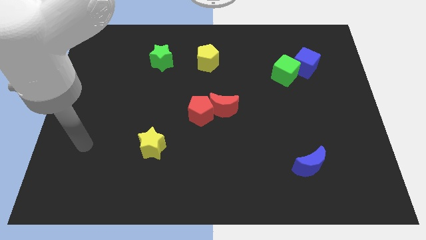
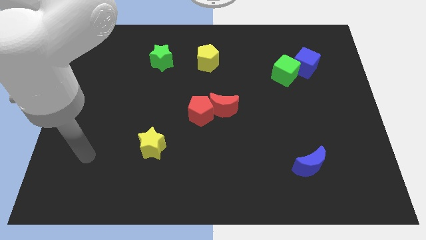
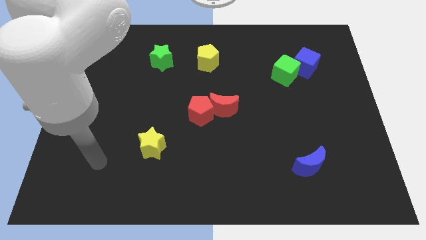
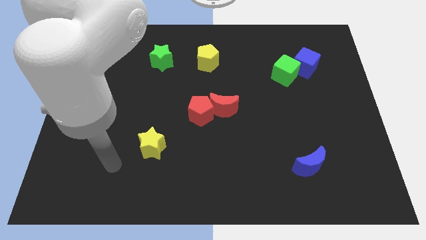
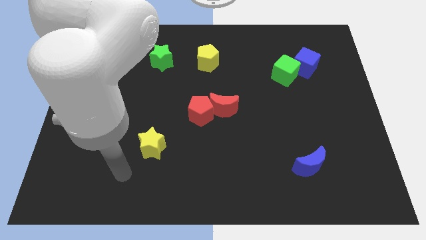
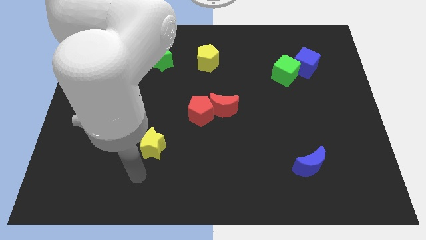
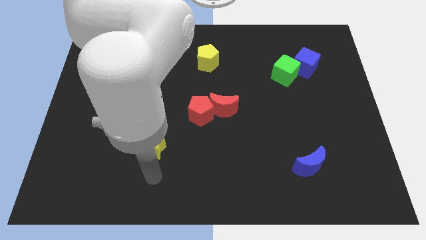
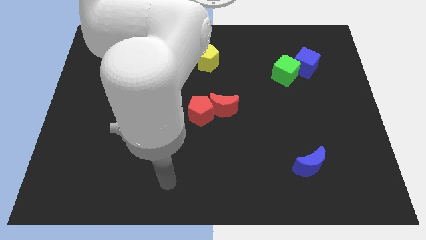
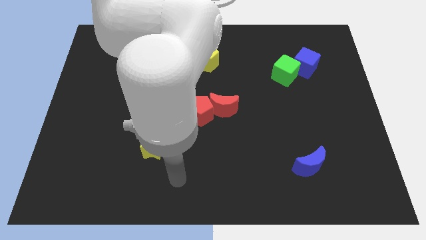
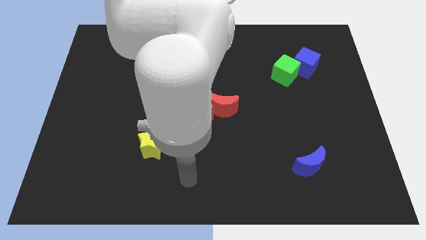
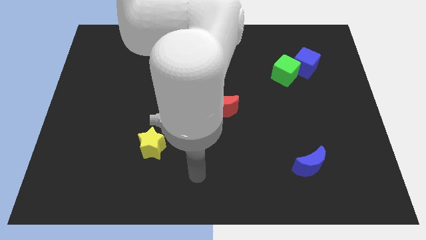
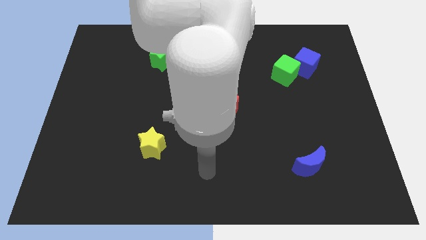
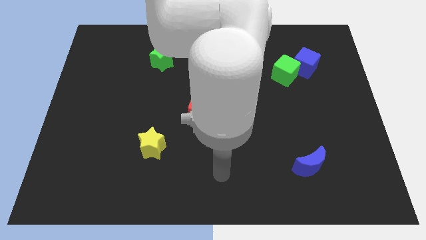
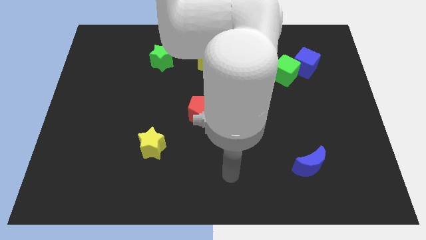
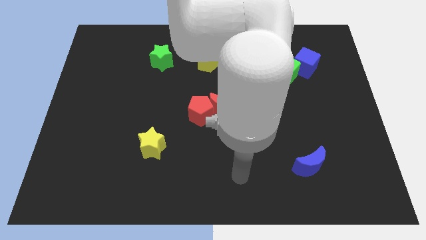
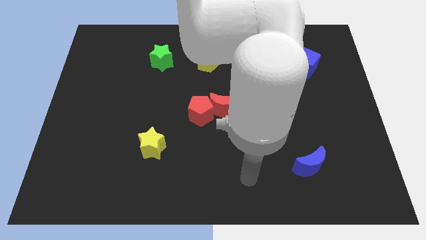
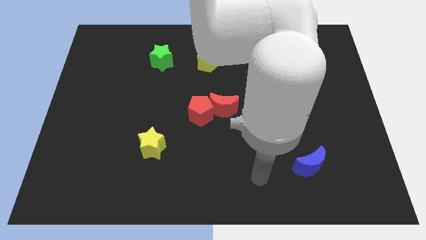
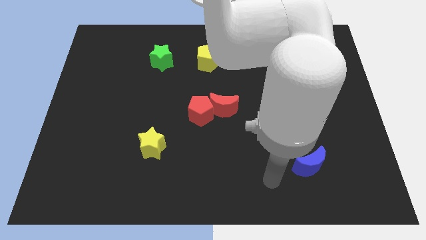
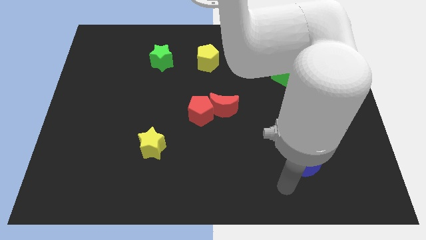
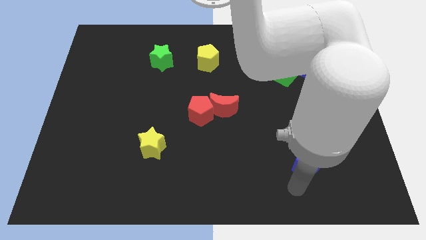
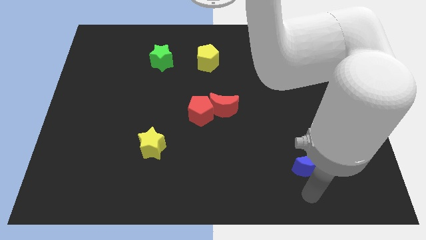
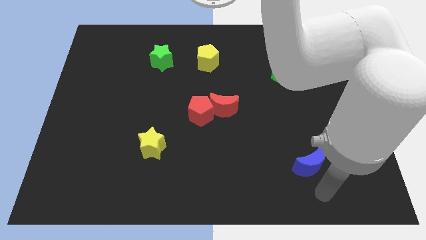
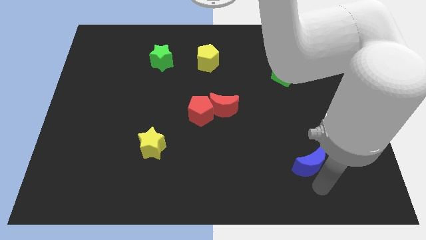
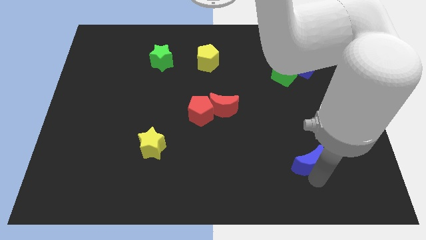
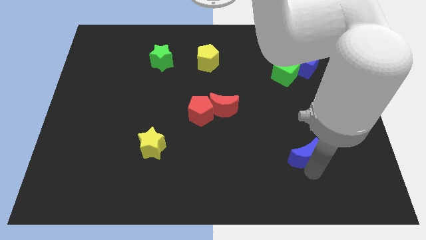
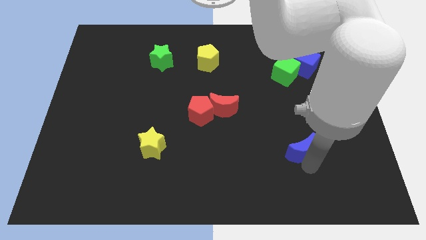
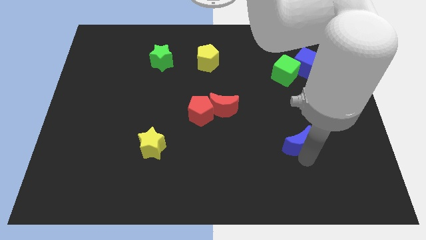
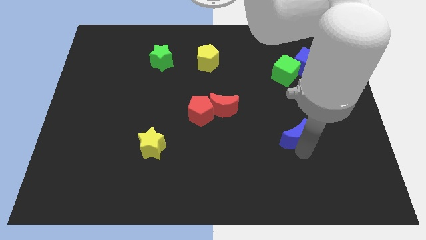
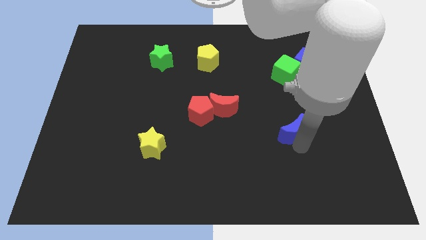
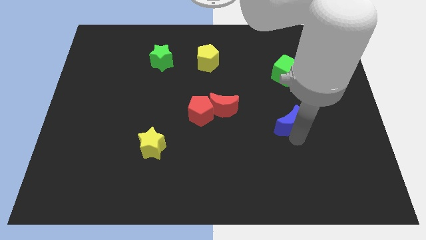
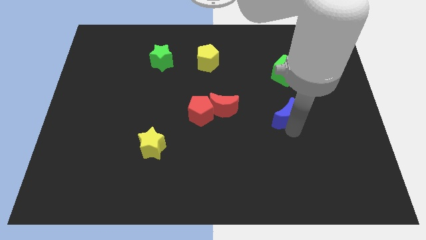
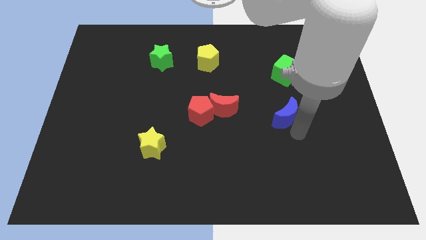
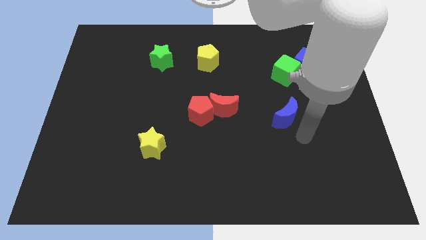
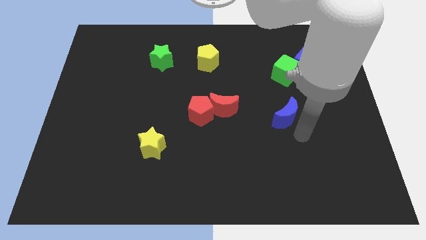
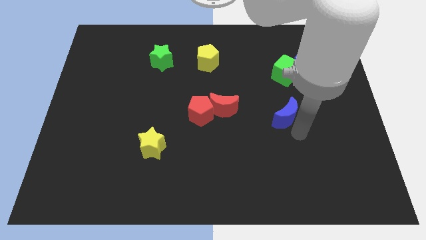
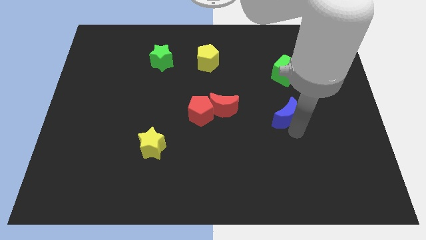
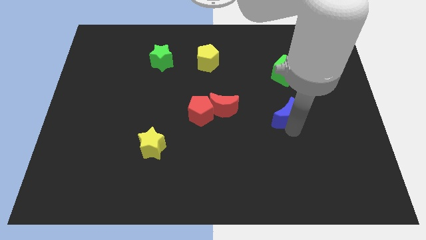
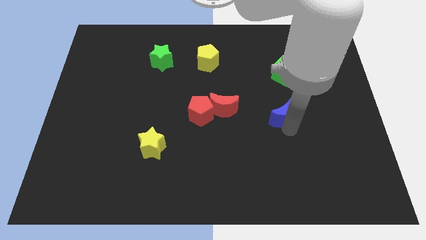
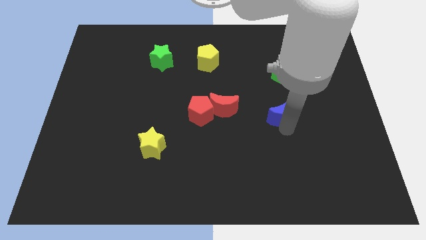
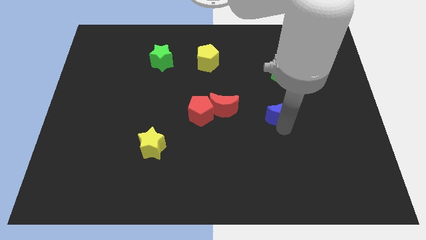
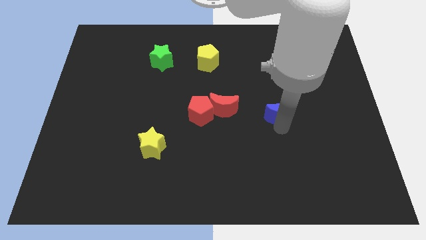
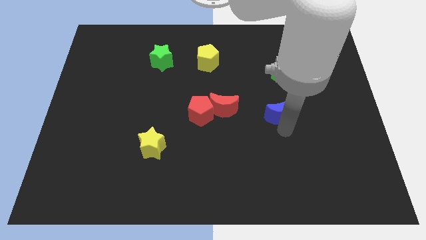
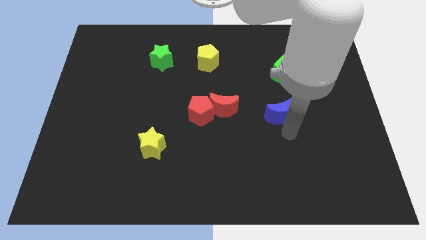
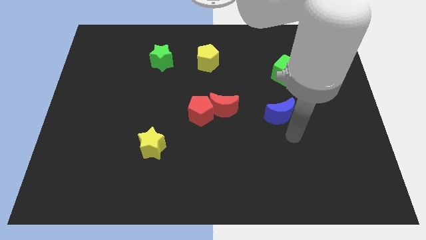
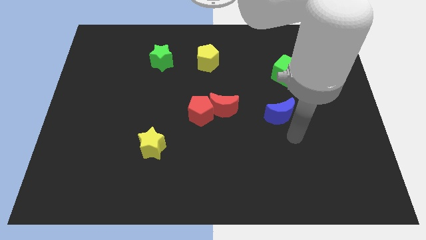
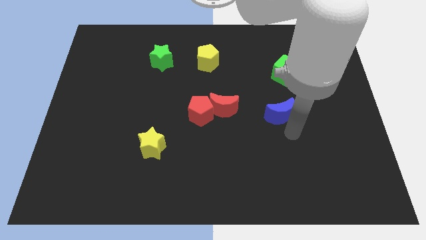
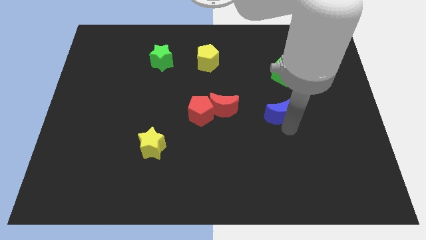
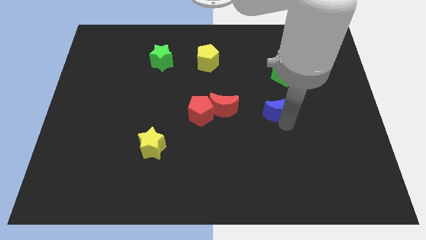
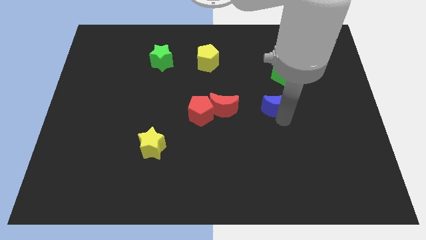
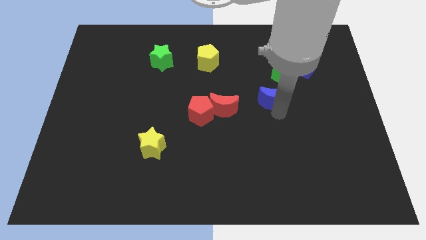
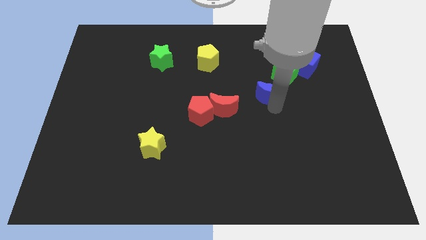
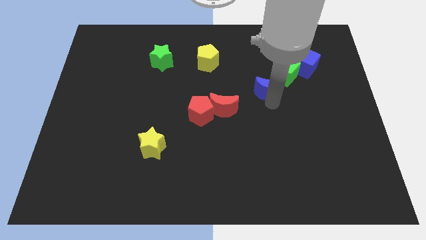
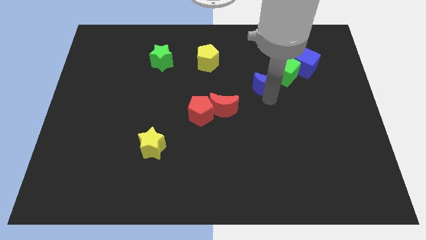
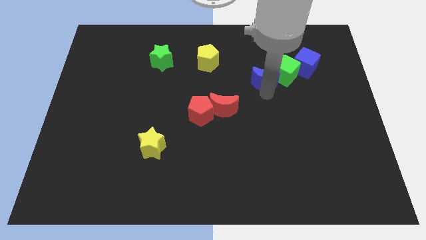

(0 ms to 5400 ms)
move the blue moon up

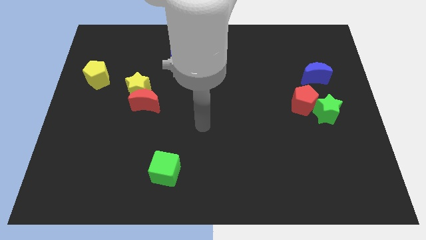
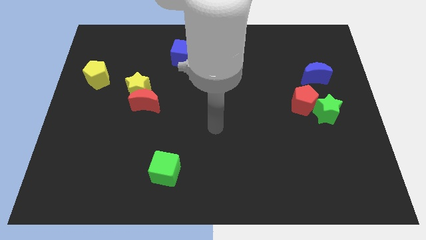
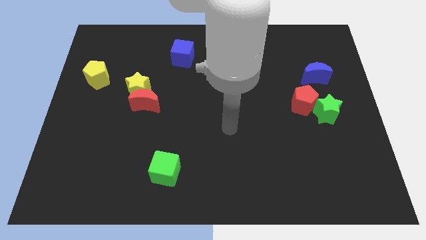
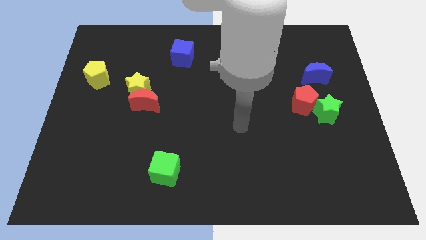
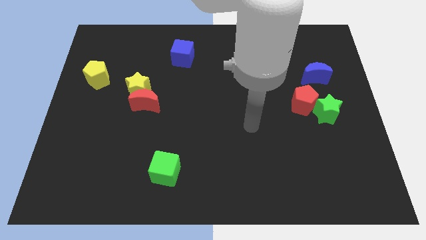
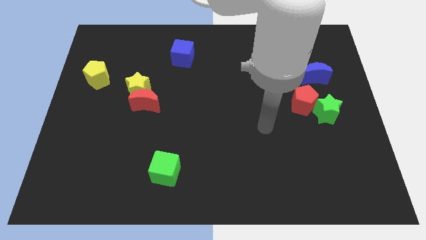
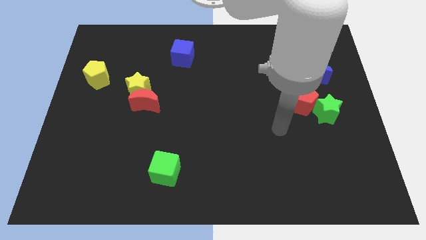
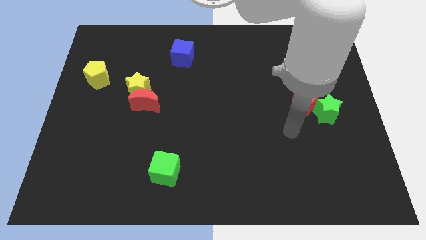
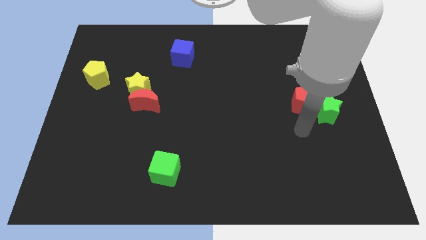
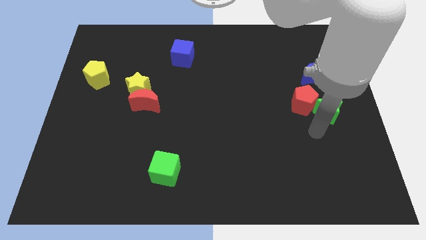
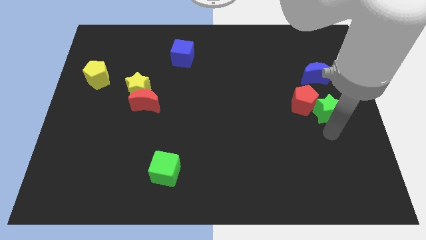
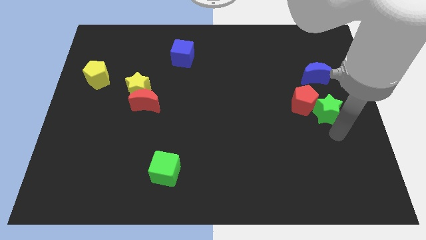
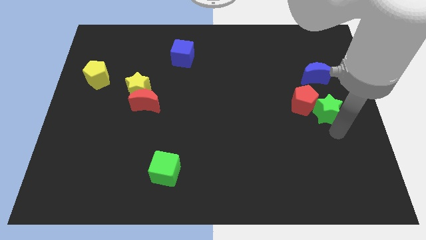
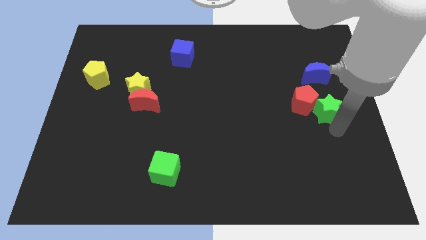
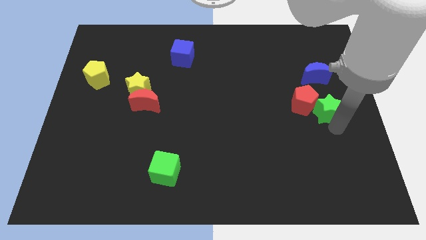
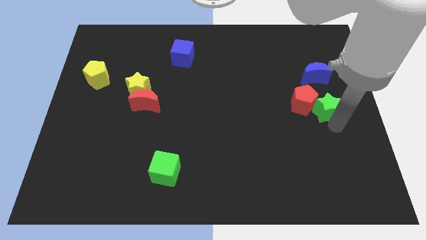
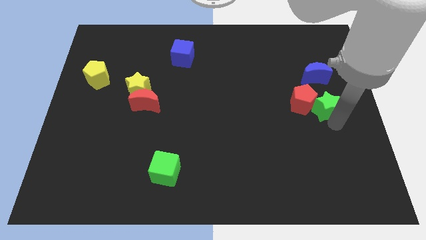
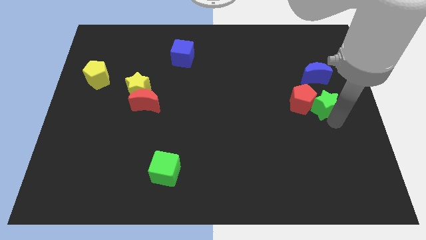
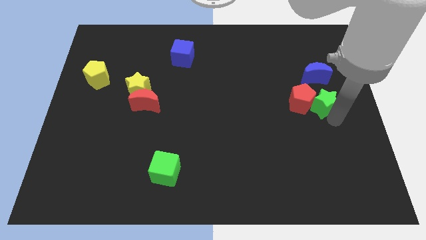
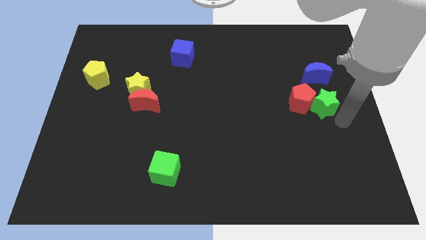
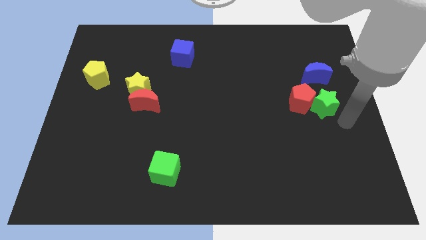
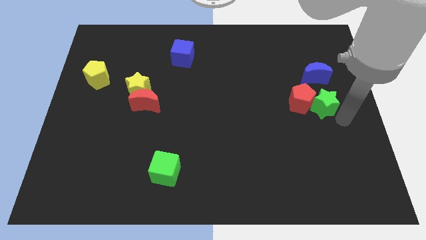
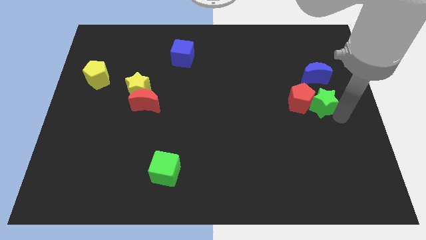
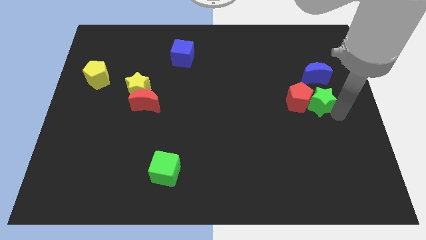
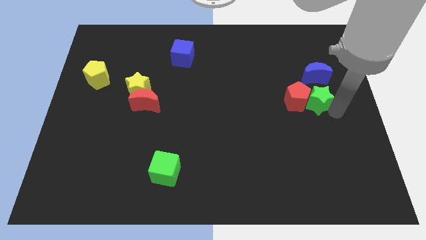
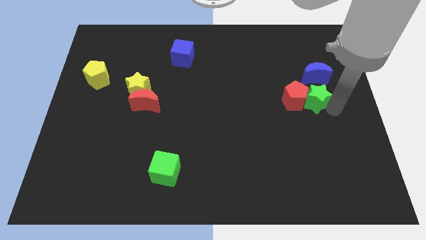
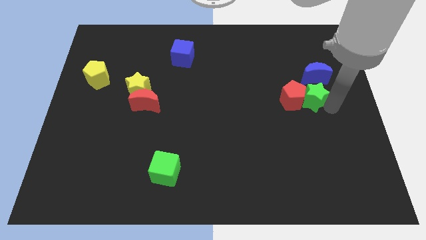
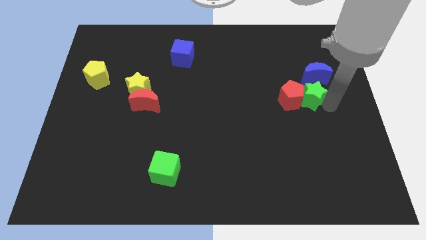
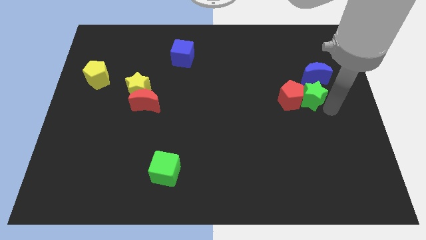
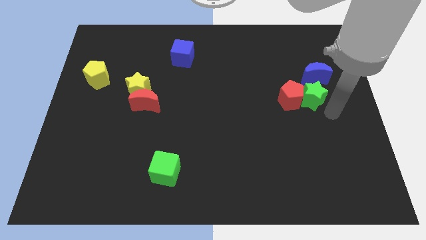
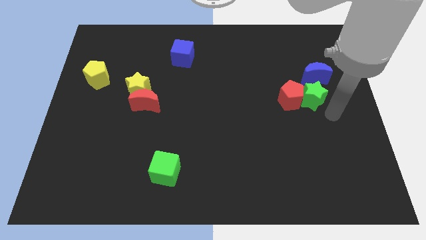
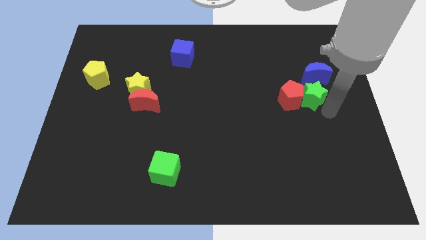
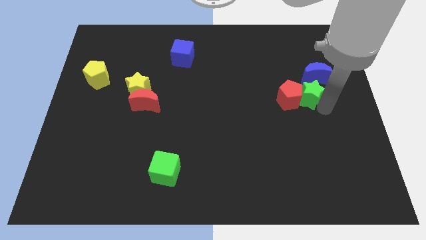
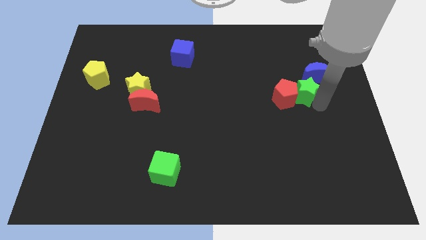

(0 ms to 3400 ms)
slightly move the green star up and then to the left
